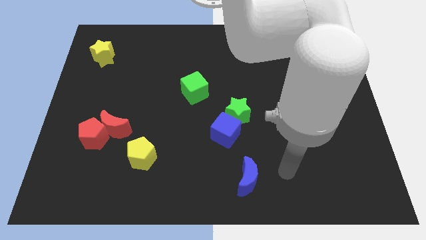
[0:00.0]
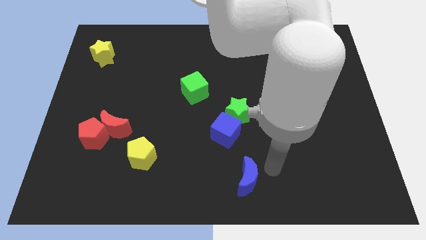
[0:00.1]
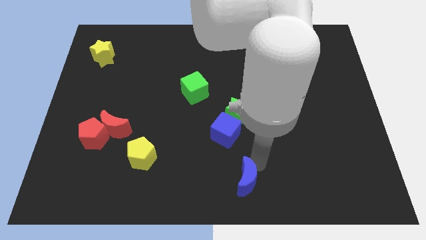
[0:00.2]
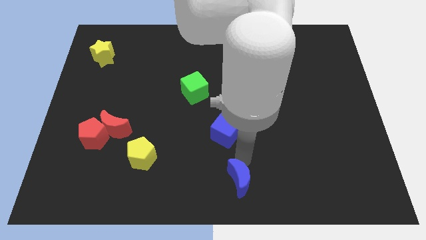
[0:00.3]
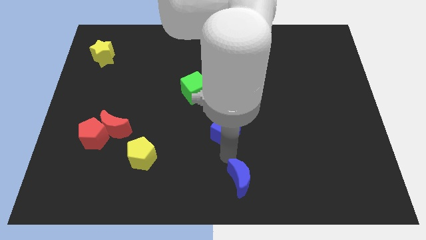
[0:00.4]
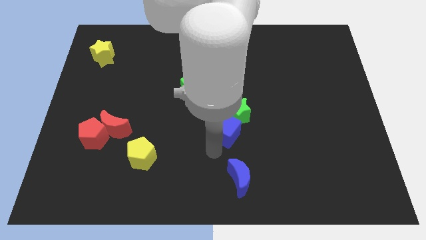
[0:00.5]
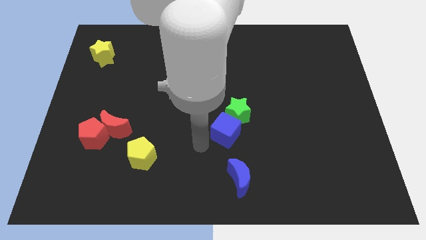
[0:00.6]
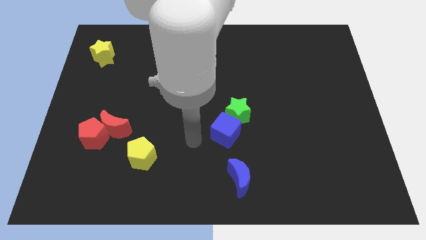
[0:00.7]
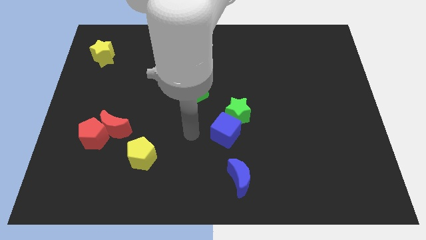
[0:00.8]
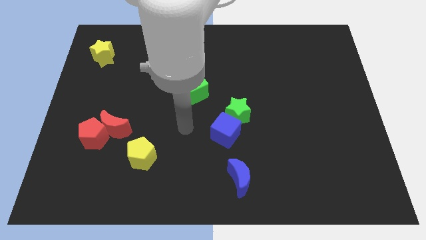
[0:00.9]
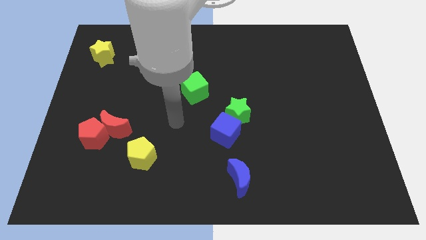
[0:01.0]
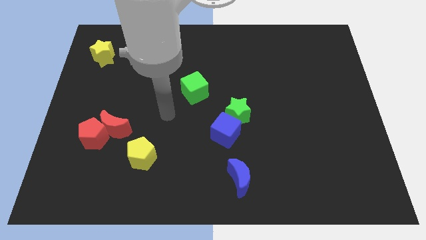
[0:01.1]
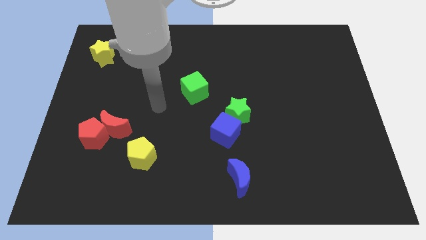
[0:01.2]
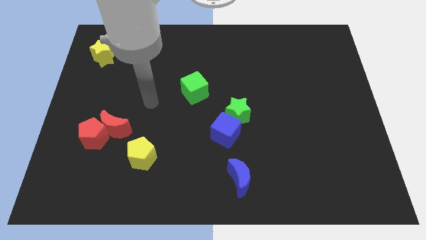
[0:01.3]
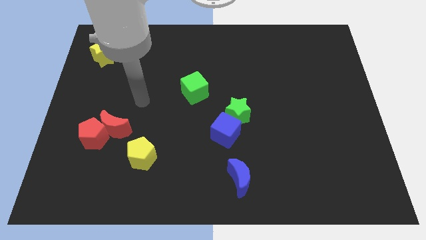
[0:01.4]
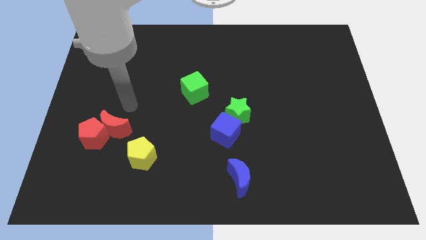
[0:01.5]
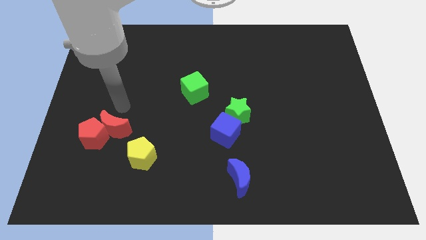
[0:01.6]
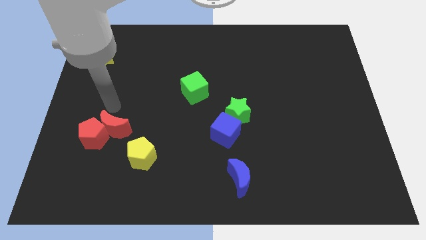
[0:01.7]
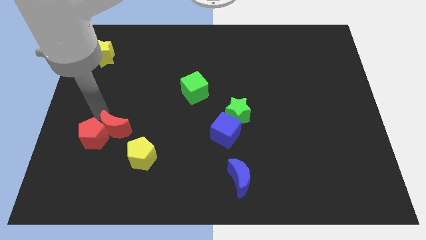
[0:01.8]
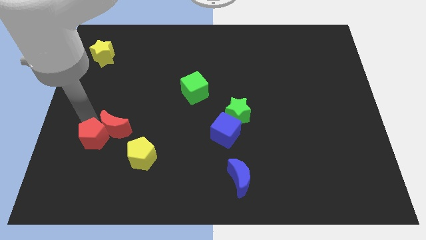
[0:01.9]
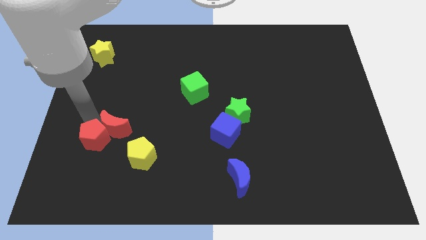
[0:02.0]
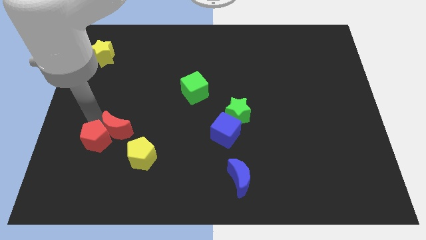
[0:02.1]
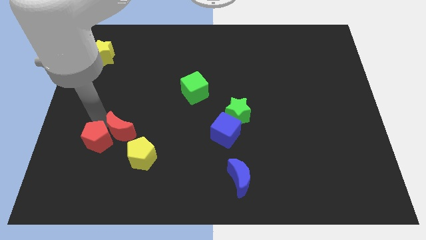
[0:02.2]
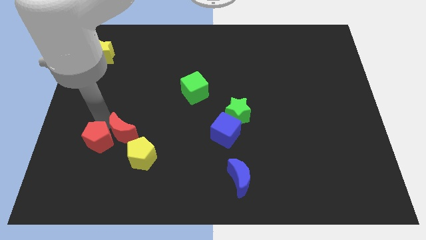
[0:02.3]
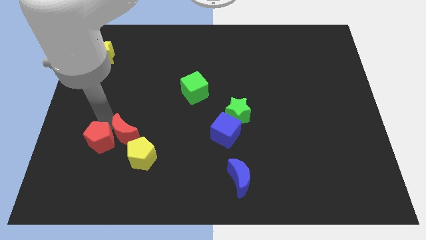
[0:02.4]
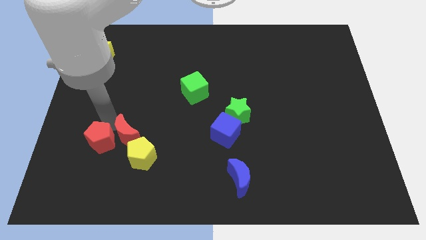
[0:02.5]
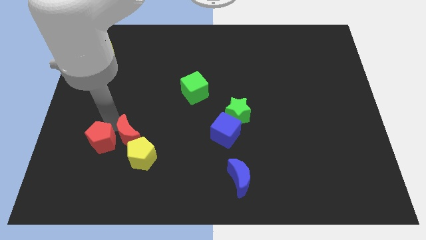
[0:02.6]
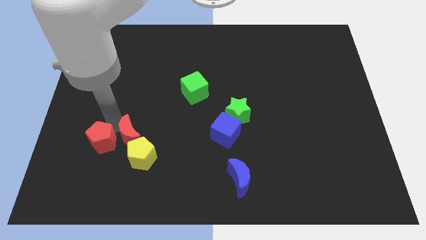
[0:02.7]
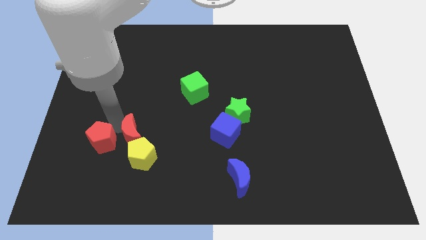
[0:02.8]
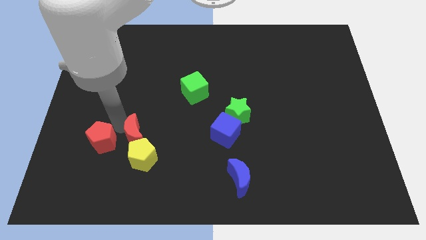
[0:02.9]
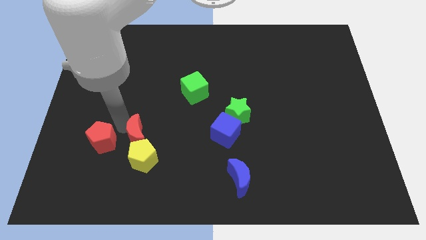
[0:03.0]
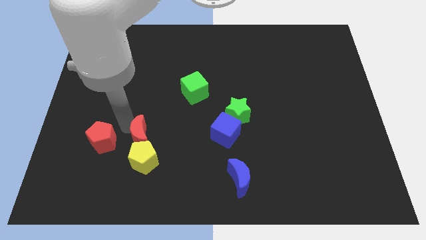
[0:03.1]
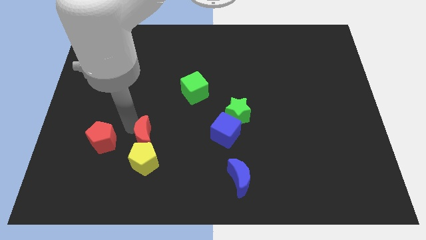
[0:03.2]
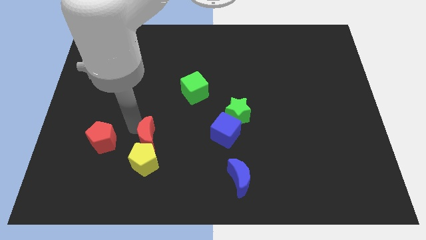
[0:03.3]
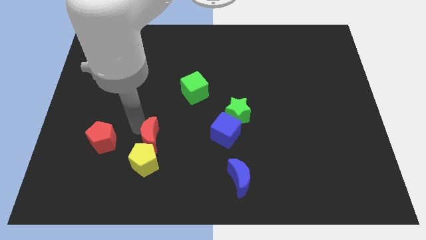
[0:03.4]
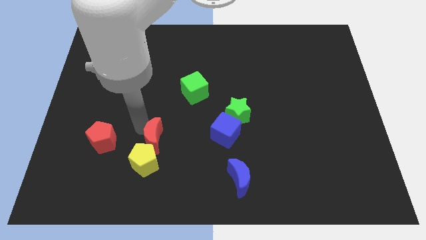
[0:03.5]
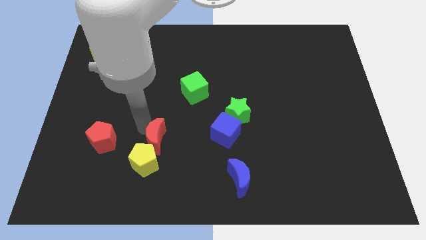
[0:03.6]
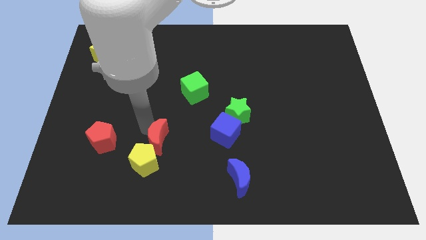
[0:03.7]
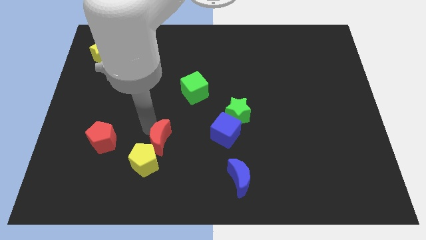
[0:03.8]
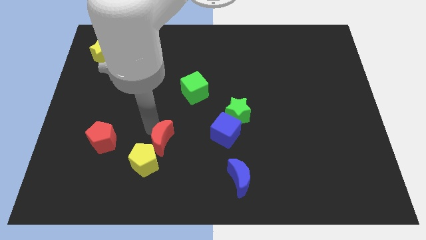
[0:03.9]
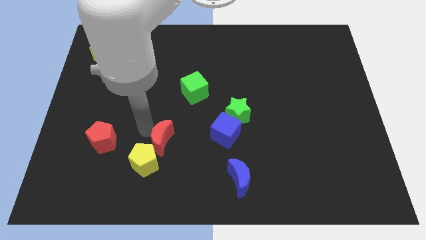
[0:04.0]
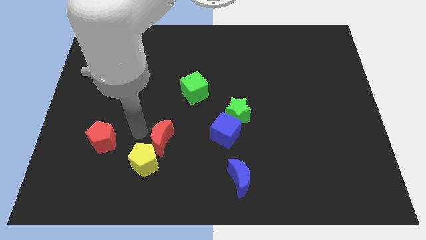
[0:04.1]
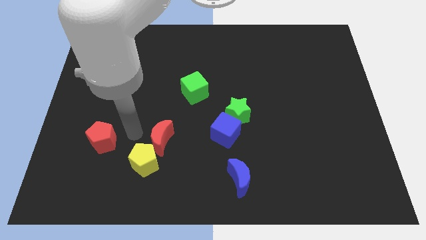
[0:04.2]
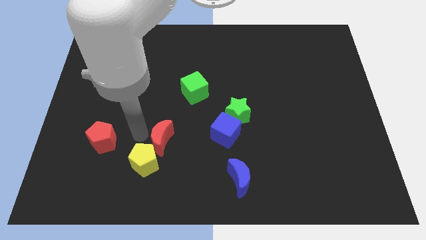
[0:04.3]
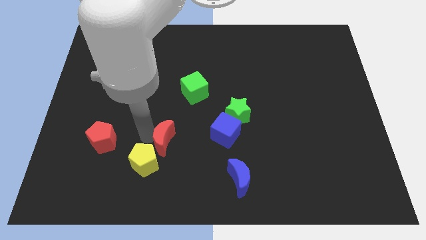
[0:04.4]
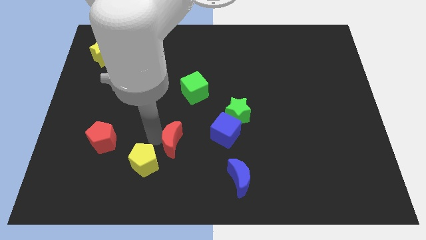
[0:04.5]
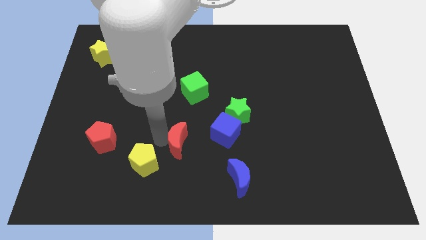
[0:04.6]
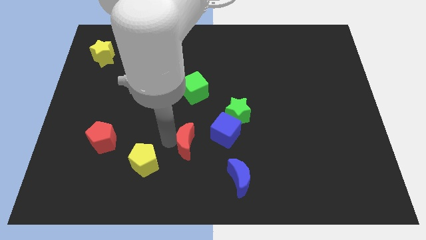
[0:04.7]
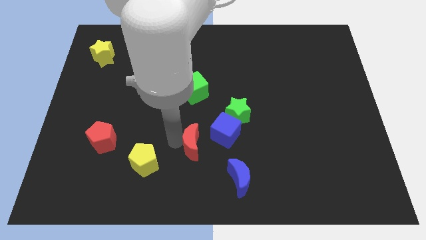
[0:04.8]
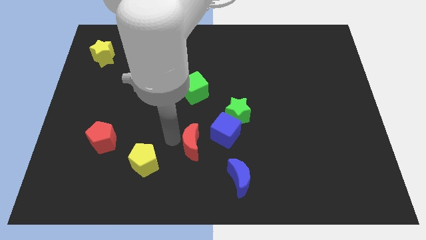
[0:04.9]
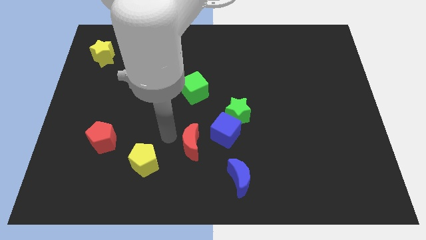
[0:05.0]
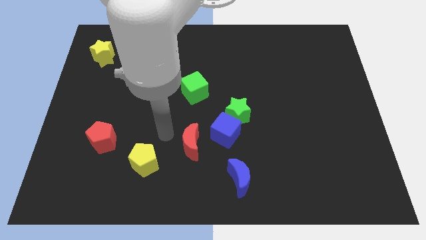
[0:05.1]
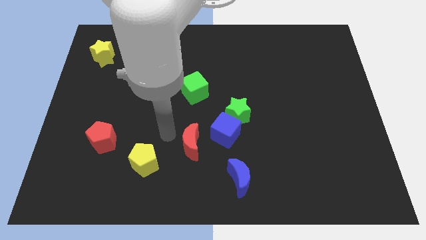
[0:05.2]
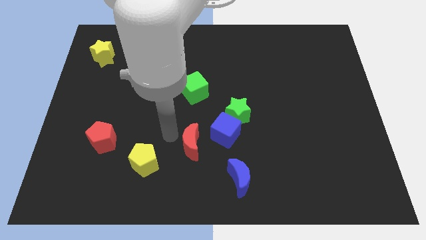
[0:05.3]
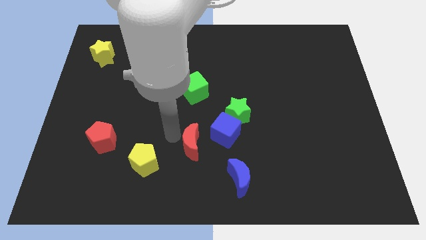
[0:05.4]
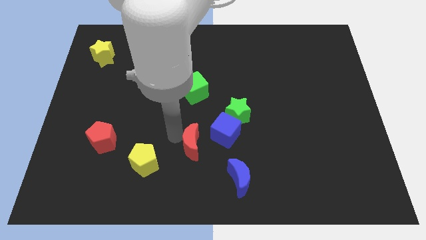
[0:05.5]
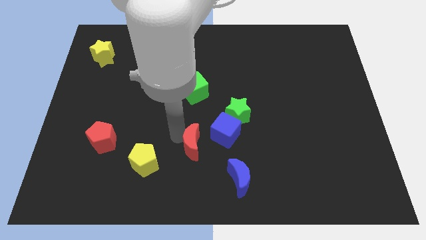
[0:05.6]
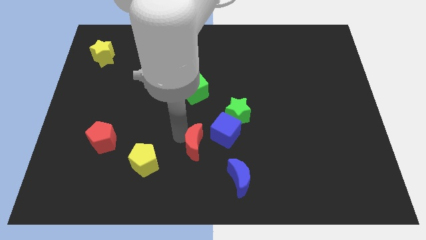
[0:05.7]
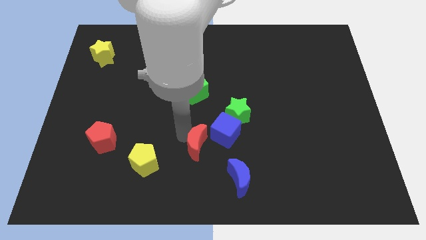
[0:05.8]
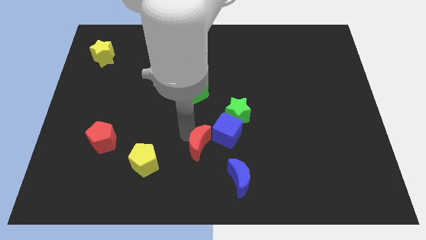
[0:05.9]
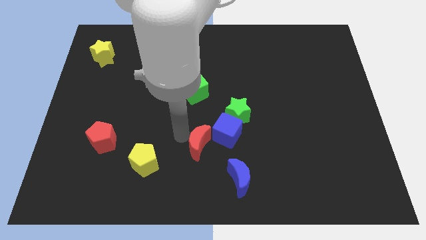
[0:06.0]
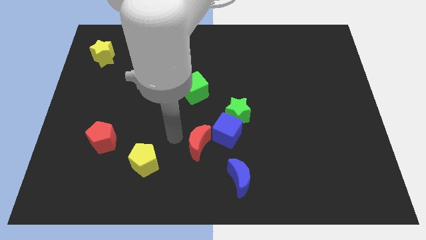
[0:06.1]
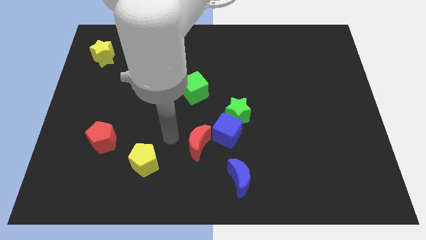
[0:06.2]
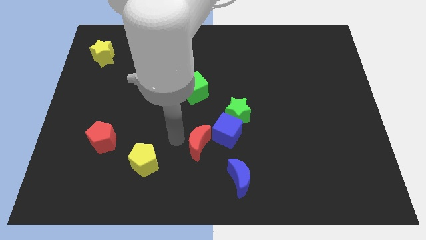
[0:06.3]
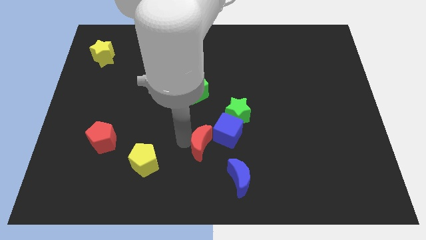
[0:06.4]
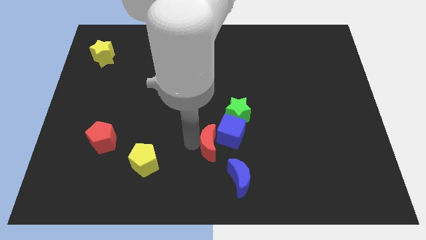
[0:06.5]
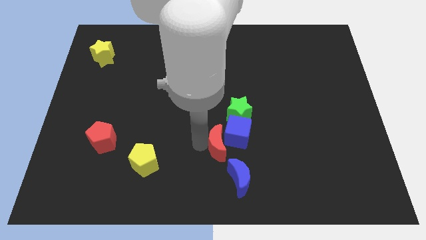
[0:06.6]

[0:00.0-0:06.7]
push the red moon to the top side of the blue moon
